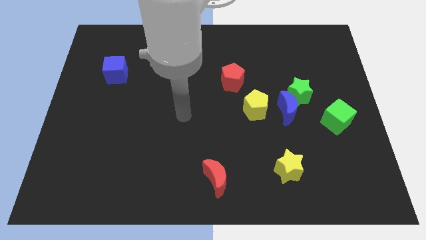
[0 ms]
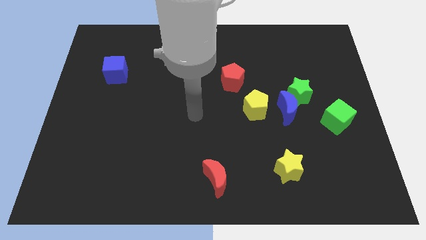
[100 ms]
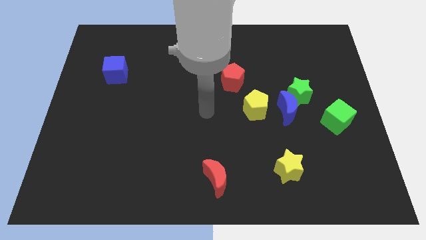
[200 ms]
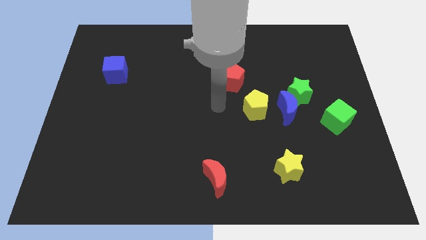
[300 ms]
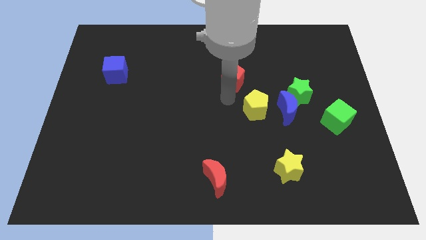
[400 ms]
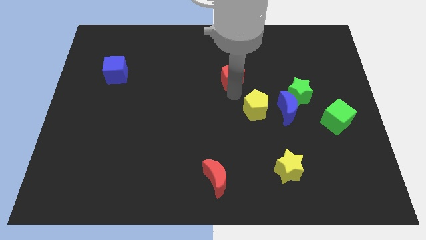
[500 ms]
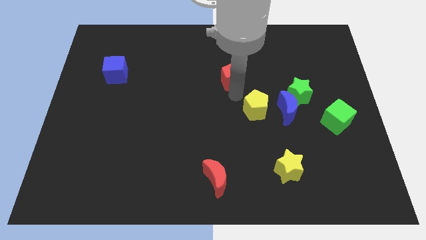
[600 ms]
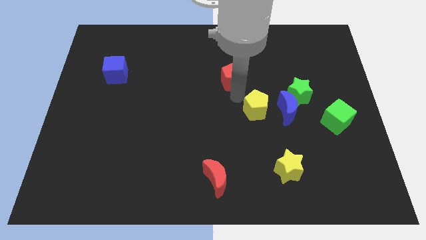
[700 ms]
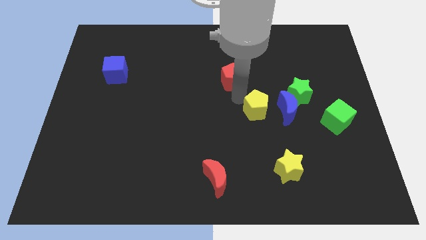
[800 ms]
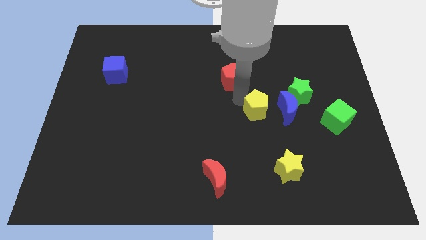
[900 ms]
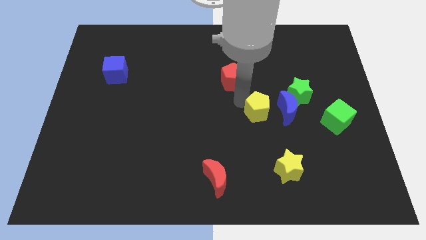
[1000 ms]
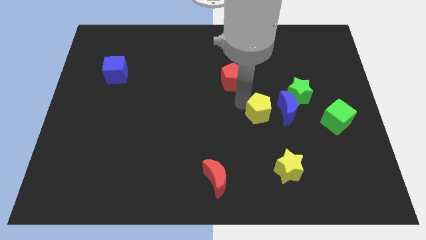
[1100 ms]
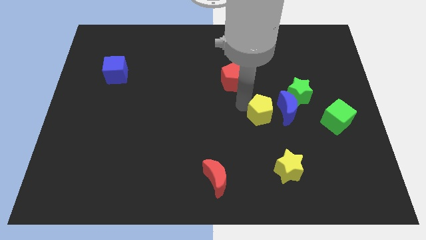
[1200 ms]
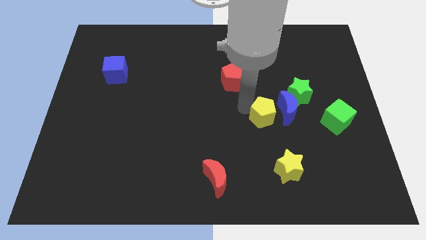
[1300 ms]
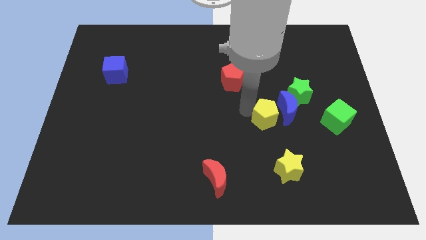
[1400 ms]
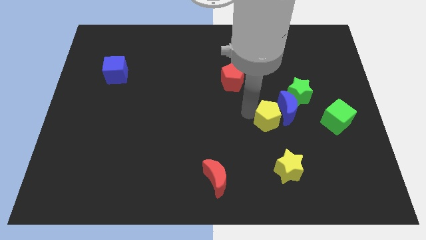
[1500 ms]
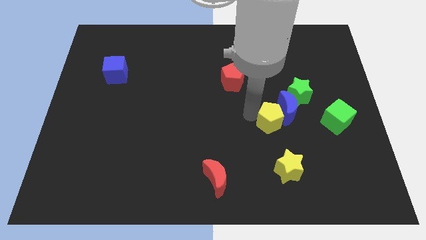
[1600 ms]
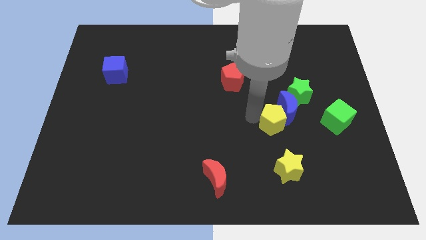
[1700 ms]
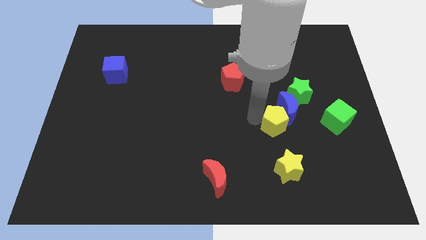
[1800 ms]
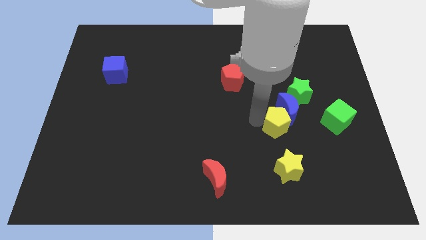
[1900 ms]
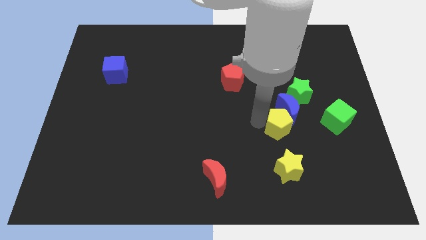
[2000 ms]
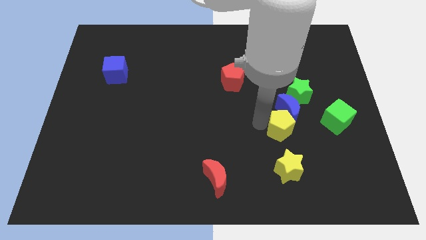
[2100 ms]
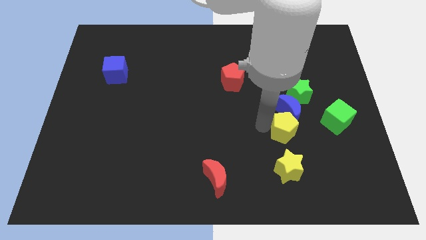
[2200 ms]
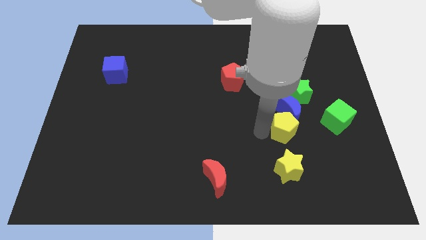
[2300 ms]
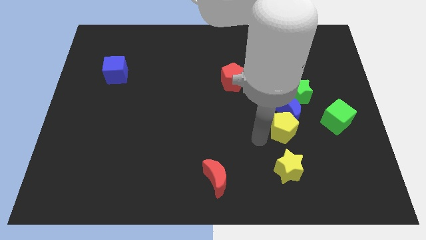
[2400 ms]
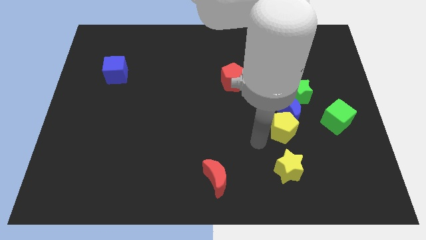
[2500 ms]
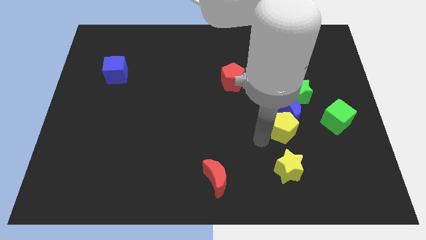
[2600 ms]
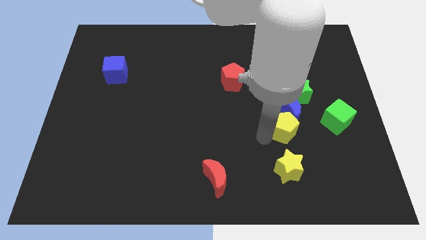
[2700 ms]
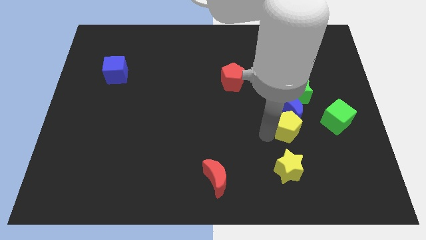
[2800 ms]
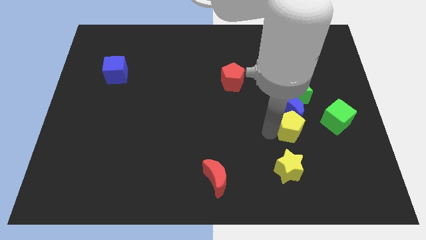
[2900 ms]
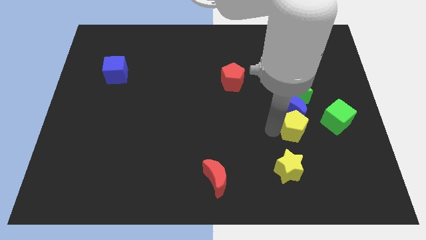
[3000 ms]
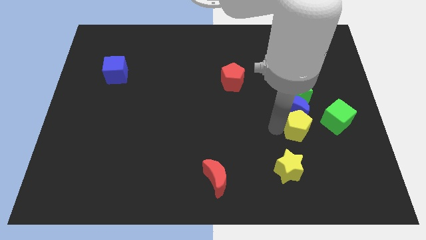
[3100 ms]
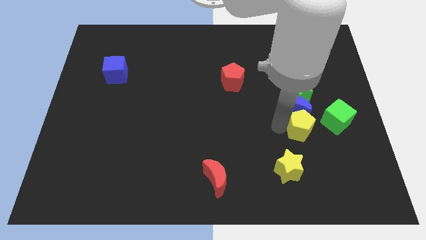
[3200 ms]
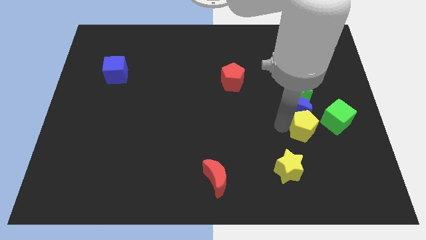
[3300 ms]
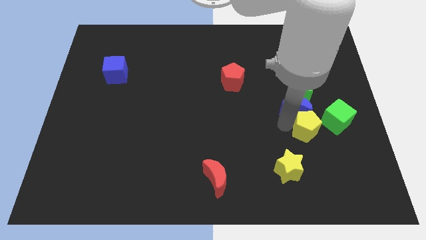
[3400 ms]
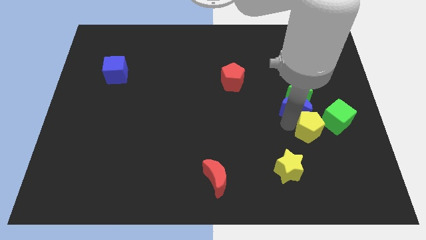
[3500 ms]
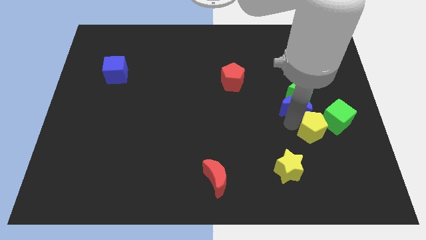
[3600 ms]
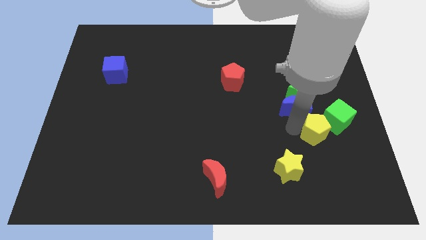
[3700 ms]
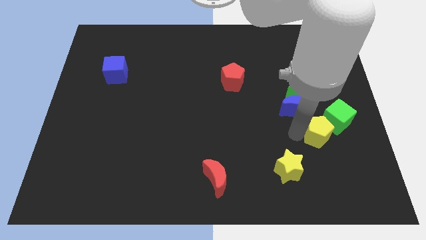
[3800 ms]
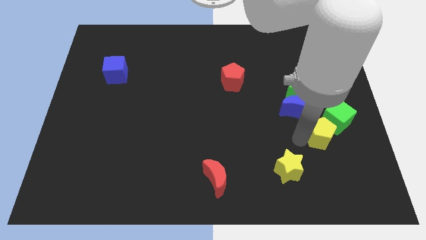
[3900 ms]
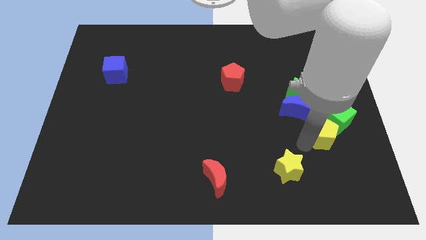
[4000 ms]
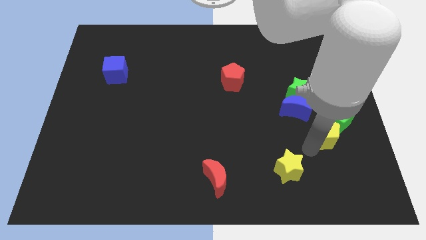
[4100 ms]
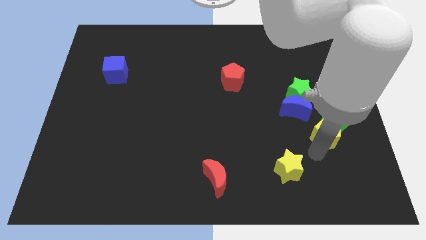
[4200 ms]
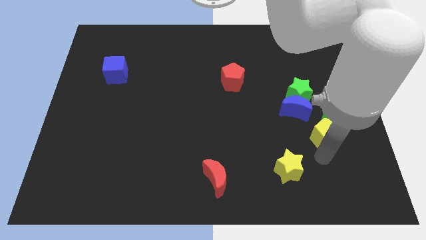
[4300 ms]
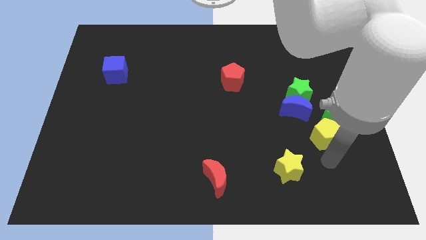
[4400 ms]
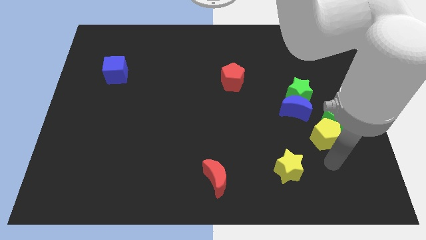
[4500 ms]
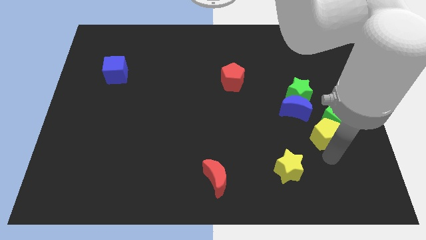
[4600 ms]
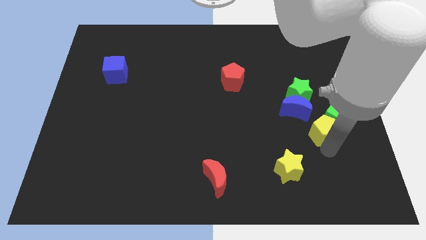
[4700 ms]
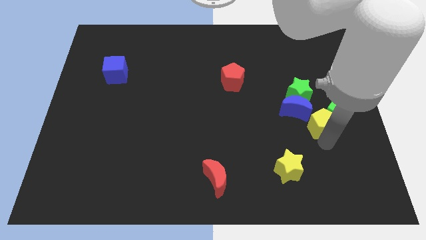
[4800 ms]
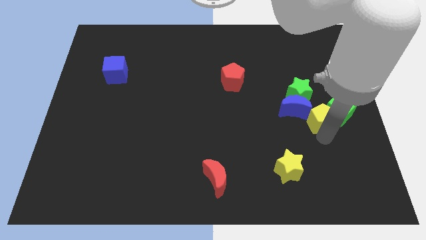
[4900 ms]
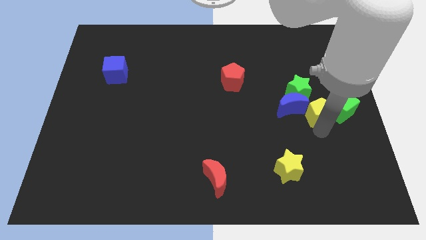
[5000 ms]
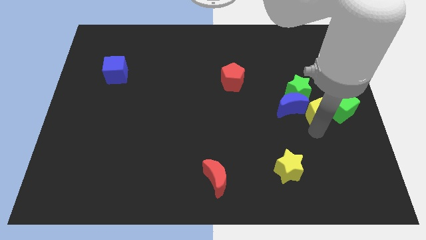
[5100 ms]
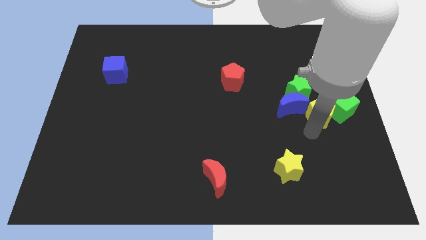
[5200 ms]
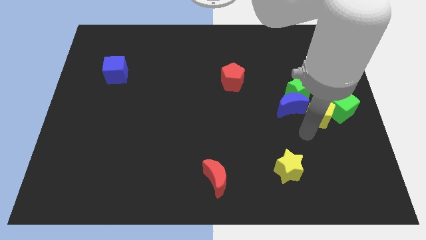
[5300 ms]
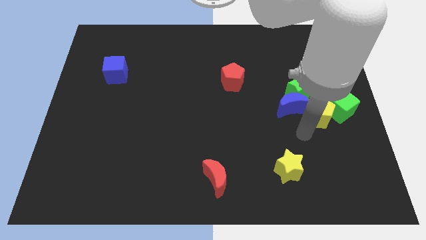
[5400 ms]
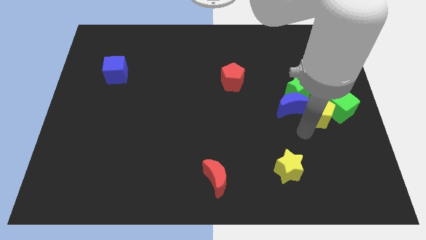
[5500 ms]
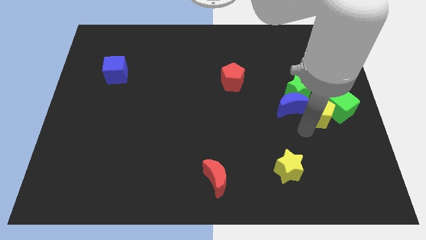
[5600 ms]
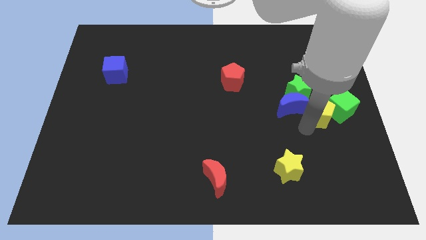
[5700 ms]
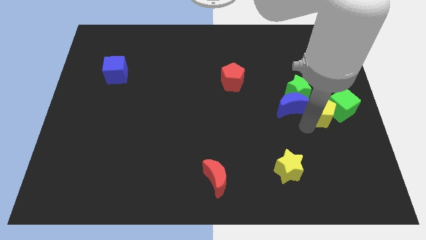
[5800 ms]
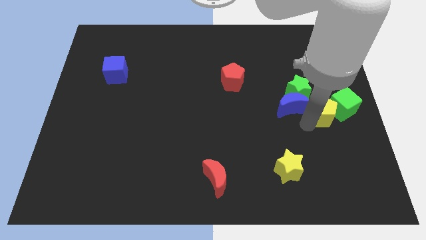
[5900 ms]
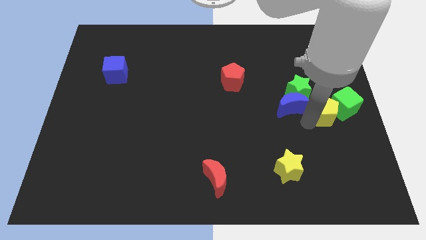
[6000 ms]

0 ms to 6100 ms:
put the yellow pentagon to the right side
